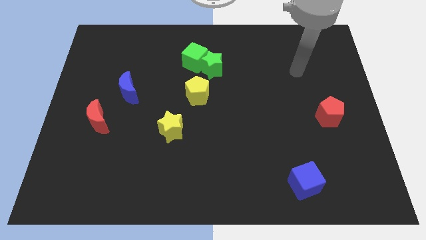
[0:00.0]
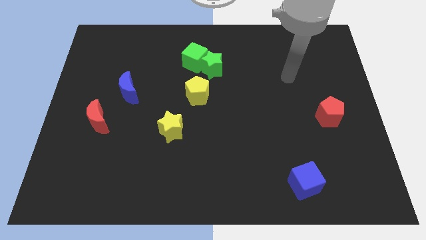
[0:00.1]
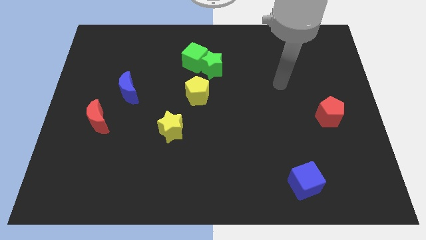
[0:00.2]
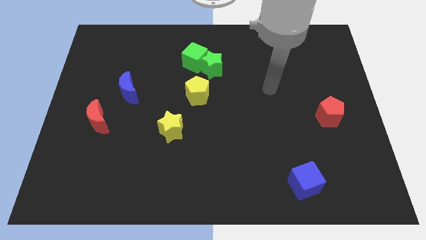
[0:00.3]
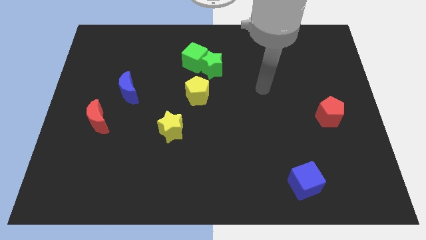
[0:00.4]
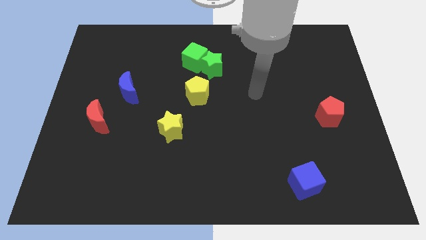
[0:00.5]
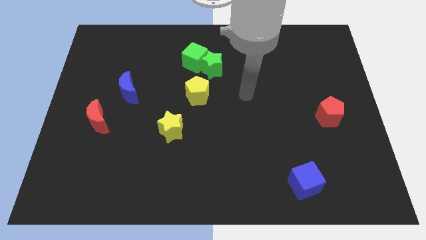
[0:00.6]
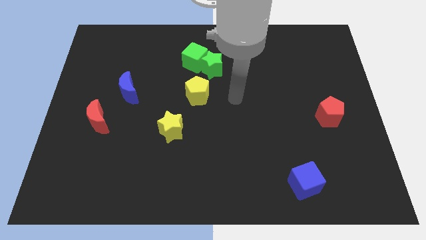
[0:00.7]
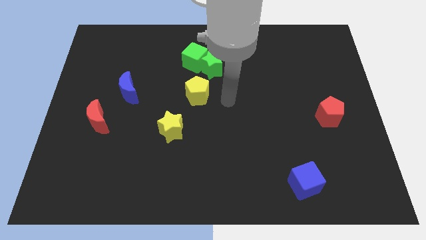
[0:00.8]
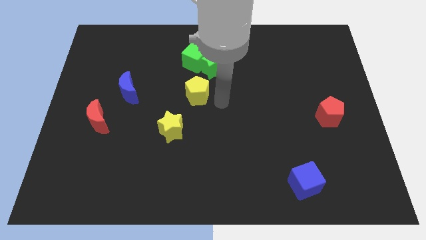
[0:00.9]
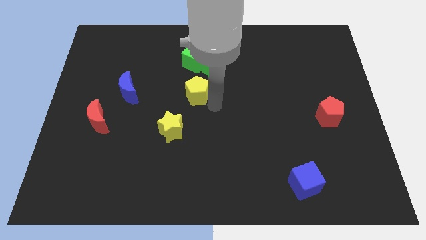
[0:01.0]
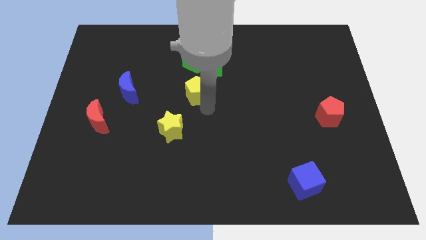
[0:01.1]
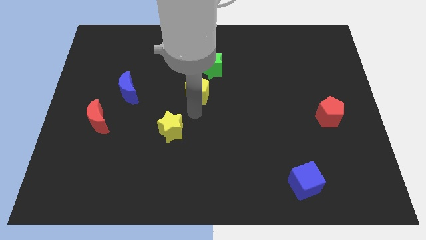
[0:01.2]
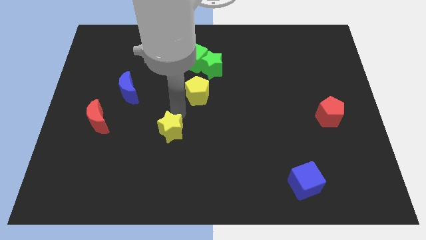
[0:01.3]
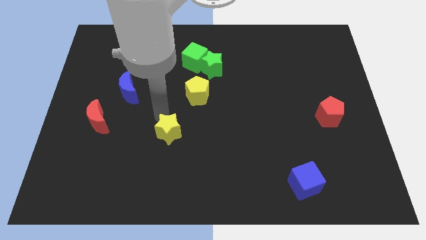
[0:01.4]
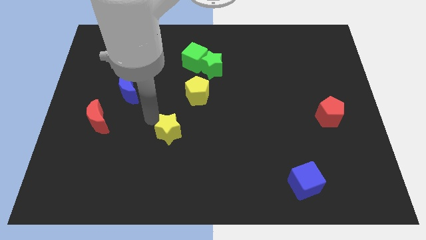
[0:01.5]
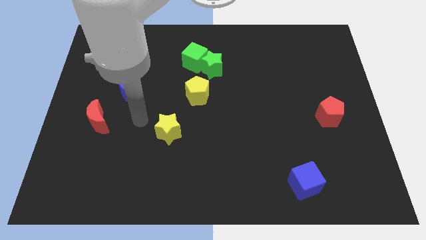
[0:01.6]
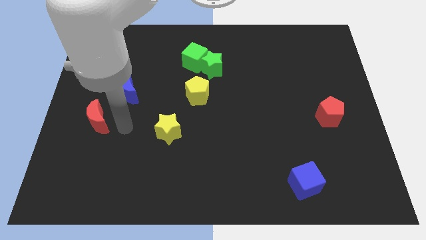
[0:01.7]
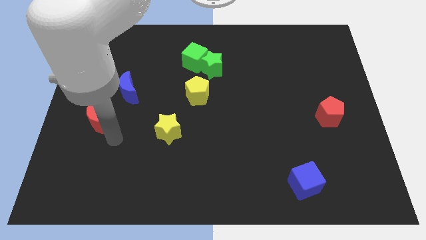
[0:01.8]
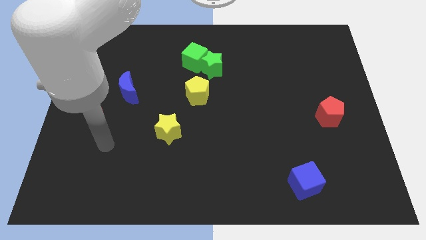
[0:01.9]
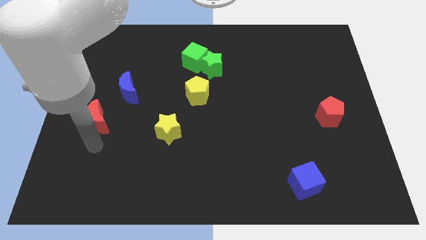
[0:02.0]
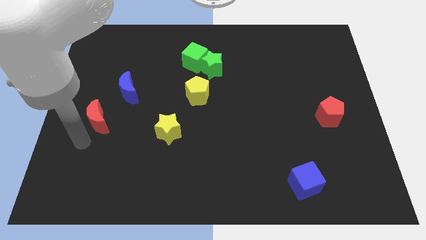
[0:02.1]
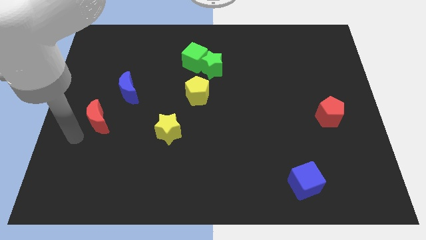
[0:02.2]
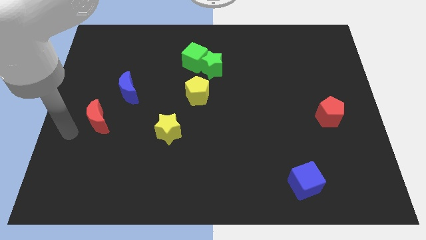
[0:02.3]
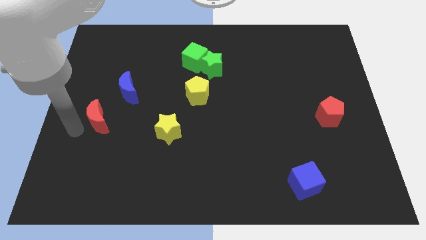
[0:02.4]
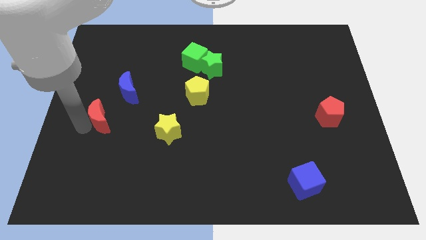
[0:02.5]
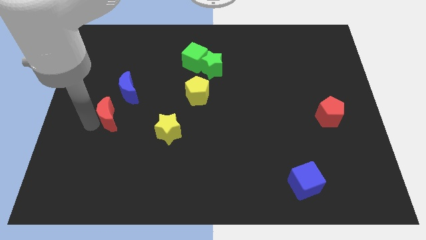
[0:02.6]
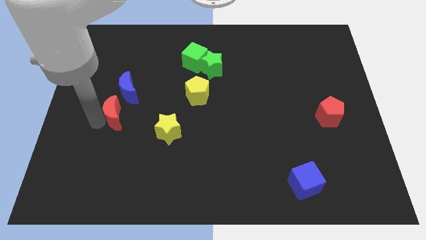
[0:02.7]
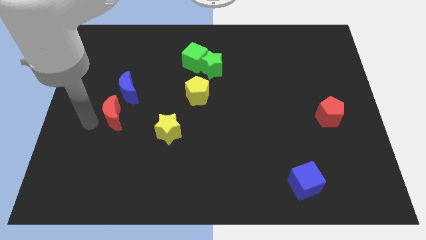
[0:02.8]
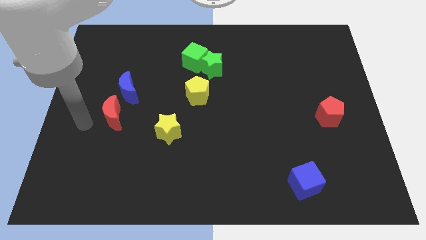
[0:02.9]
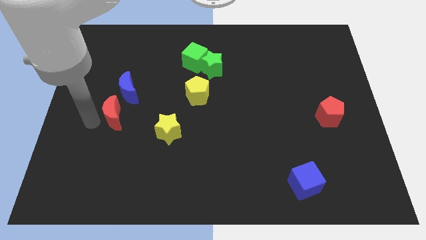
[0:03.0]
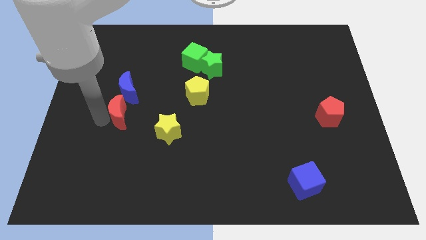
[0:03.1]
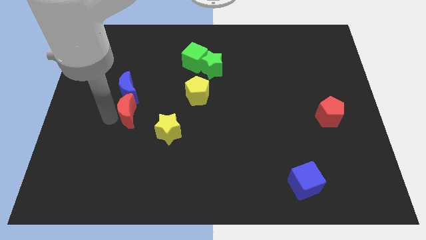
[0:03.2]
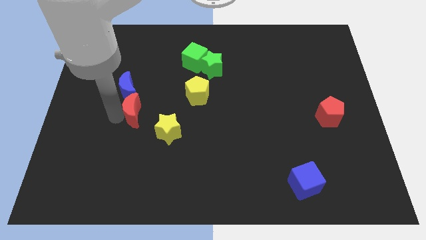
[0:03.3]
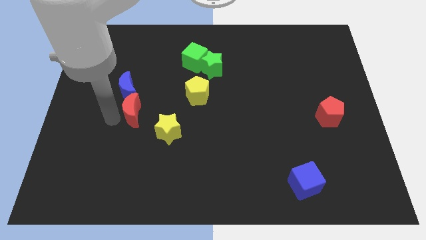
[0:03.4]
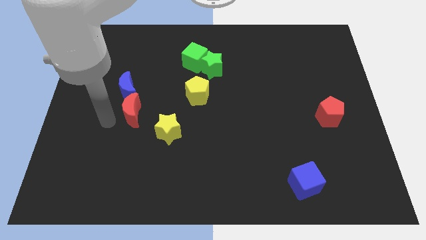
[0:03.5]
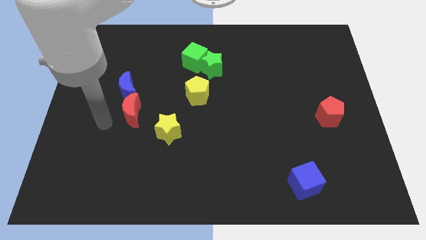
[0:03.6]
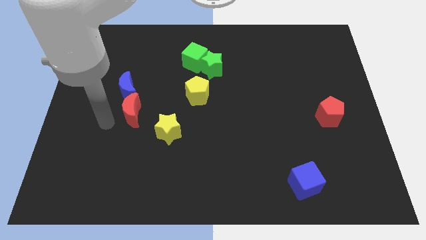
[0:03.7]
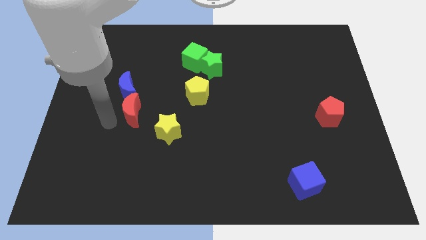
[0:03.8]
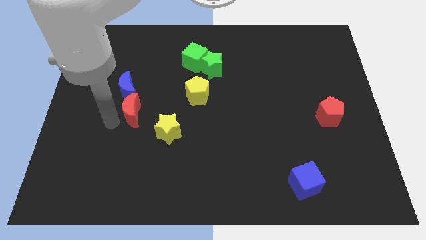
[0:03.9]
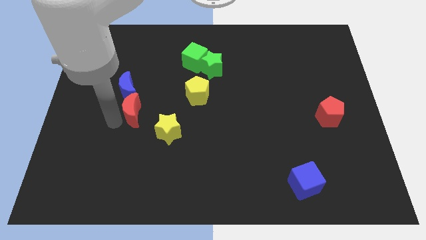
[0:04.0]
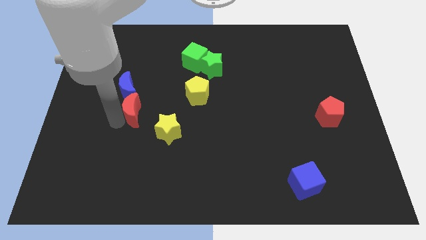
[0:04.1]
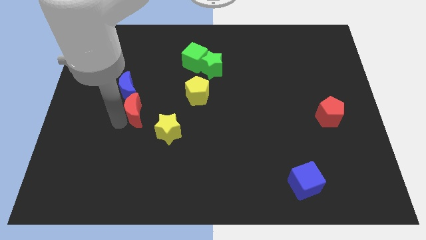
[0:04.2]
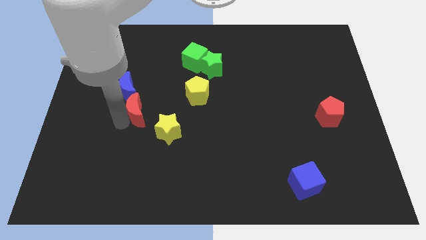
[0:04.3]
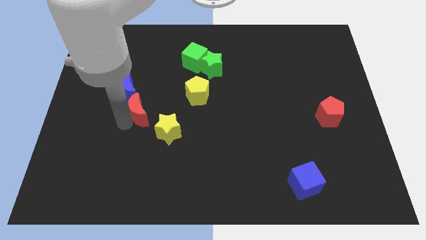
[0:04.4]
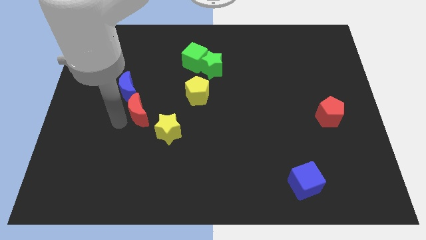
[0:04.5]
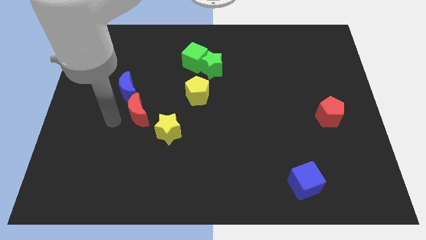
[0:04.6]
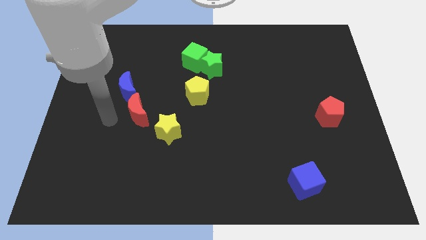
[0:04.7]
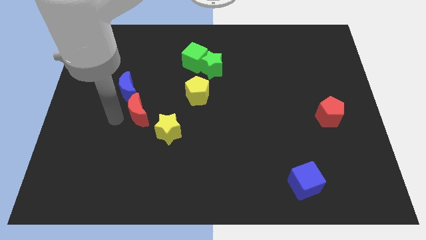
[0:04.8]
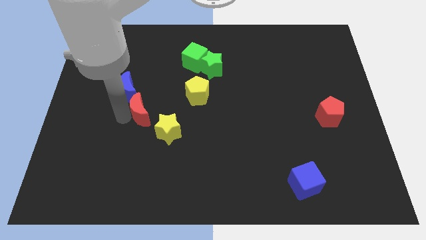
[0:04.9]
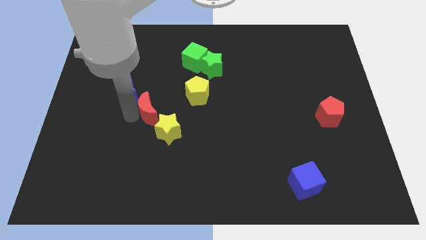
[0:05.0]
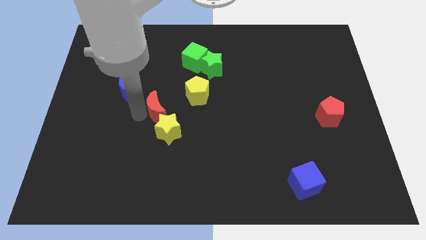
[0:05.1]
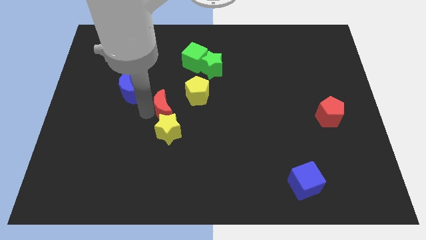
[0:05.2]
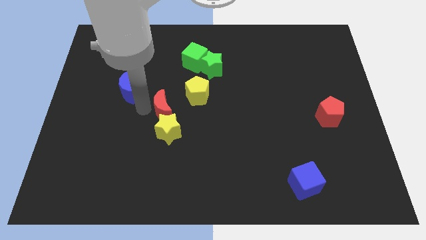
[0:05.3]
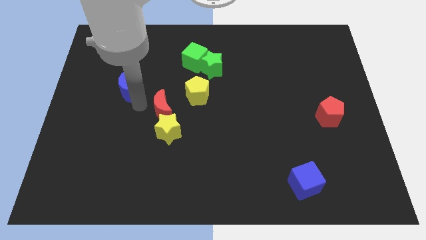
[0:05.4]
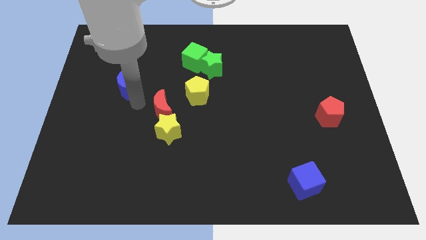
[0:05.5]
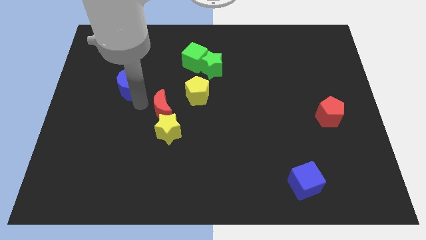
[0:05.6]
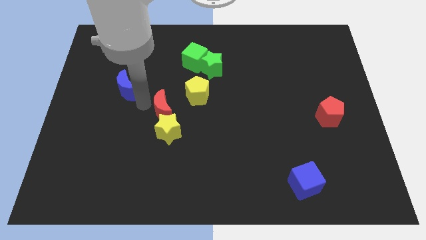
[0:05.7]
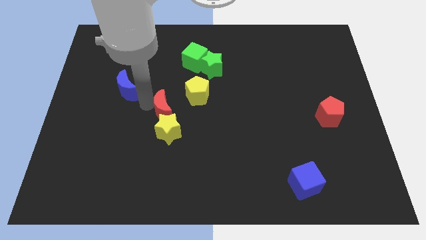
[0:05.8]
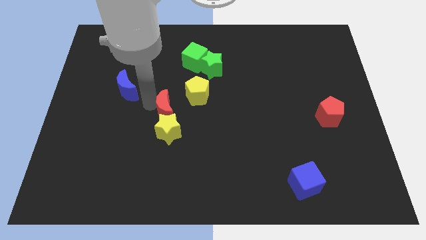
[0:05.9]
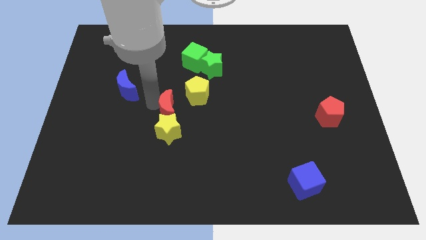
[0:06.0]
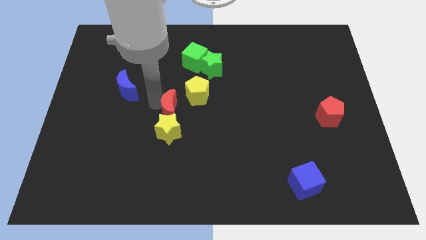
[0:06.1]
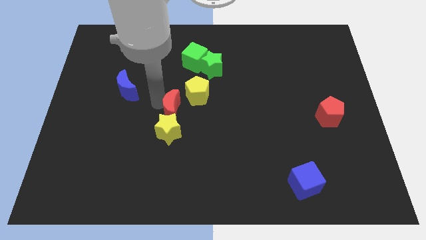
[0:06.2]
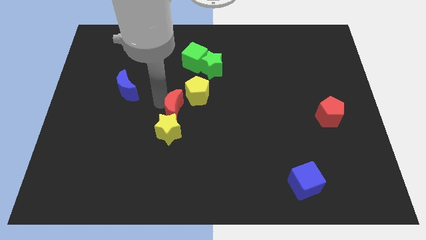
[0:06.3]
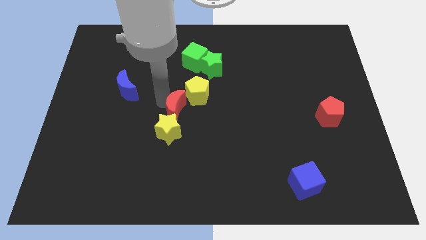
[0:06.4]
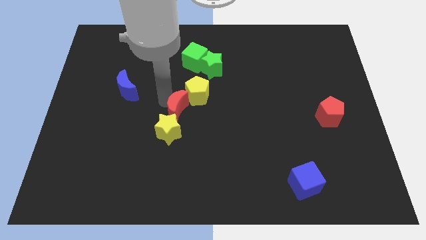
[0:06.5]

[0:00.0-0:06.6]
slide the red moon to the bottom side of the yellow pentagon
